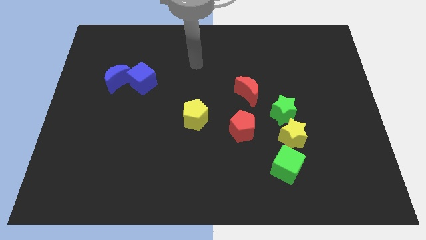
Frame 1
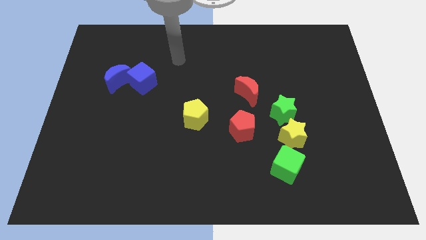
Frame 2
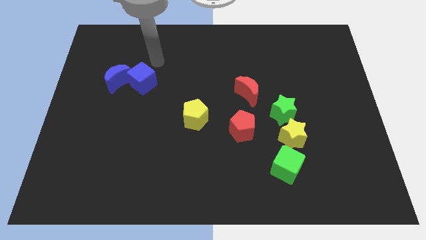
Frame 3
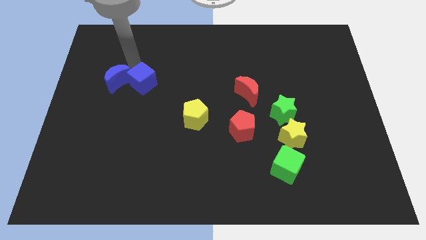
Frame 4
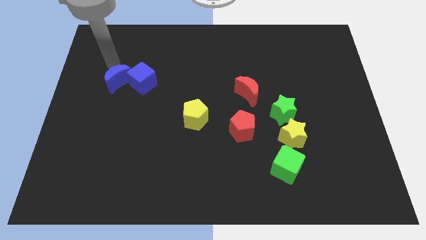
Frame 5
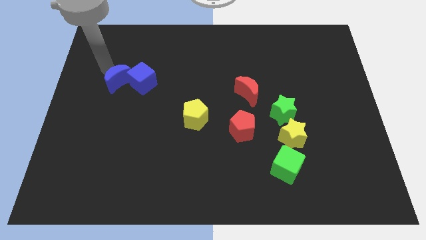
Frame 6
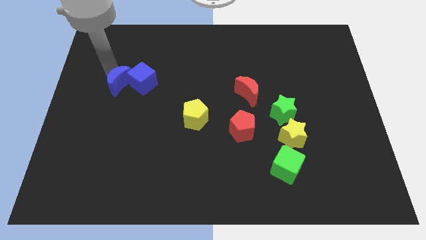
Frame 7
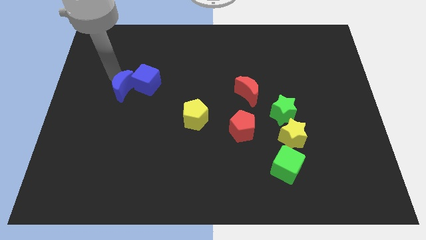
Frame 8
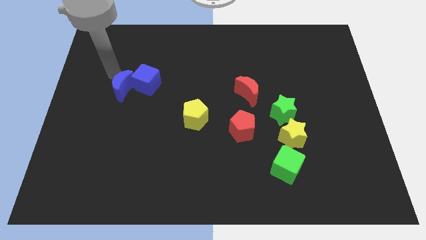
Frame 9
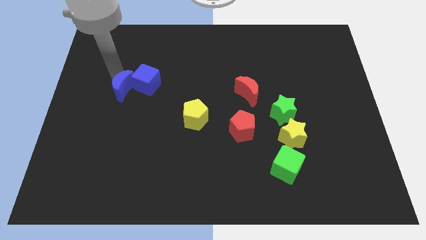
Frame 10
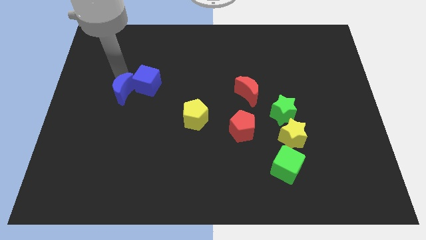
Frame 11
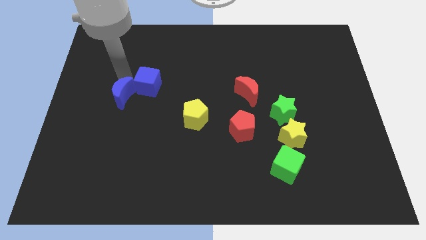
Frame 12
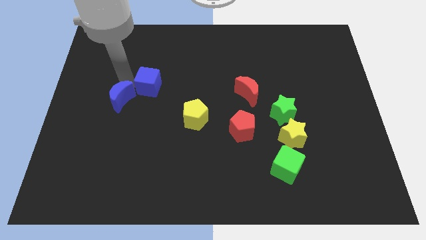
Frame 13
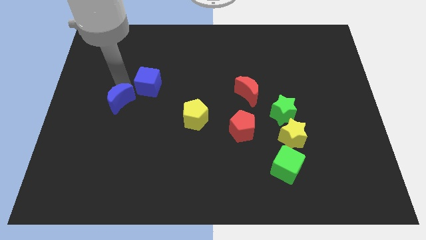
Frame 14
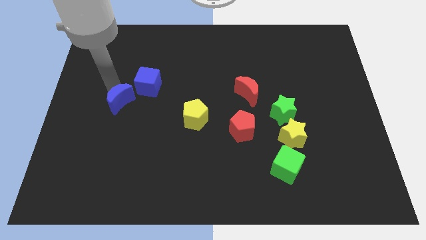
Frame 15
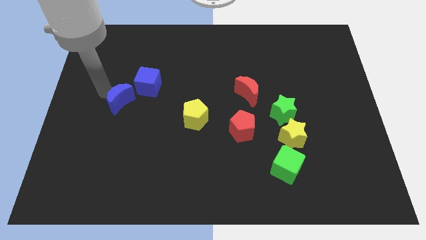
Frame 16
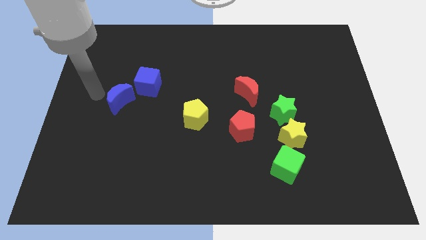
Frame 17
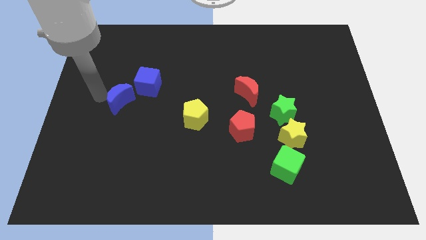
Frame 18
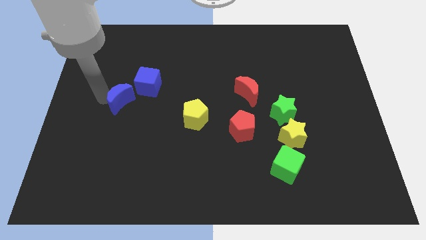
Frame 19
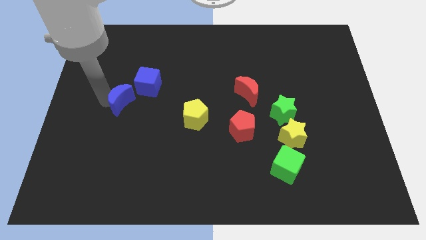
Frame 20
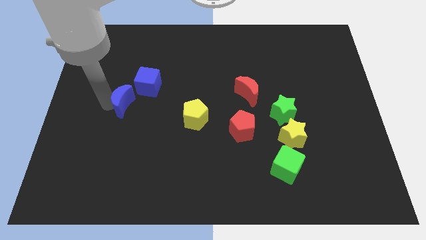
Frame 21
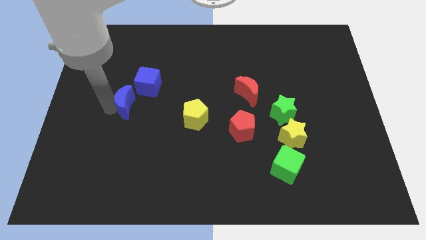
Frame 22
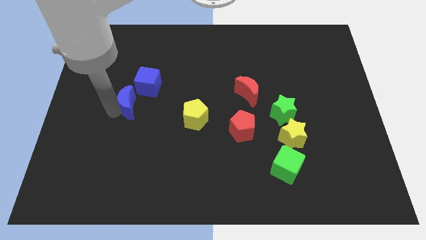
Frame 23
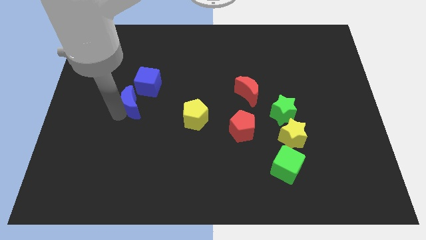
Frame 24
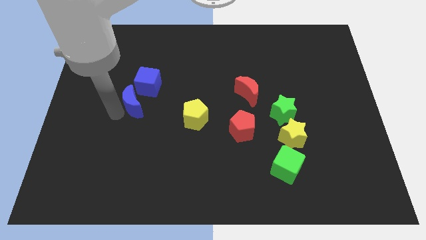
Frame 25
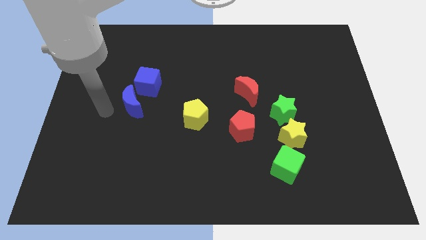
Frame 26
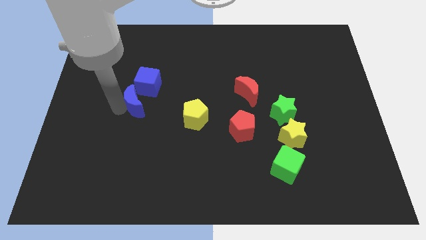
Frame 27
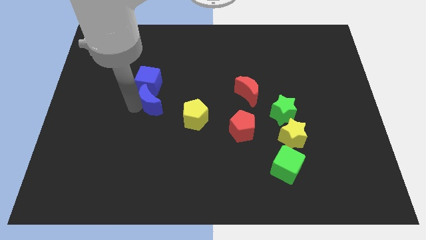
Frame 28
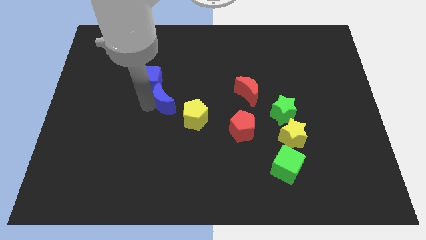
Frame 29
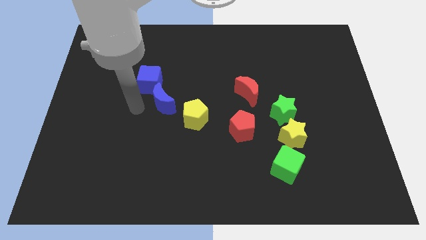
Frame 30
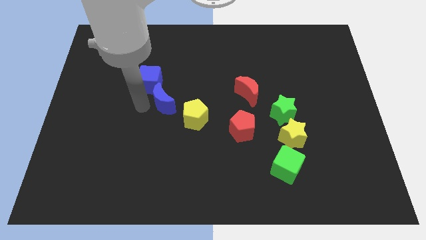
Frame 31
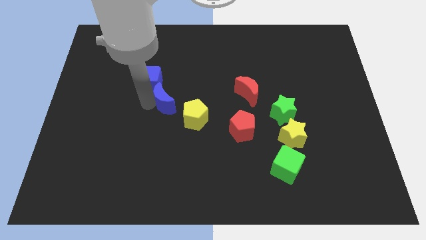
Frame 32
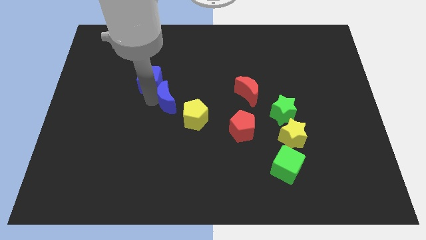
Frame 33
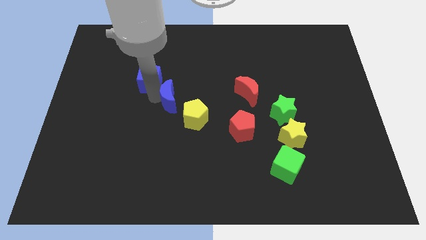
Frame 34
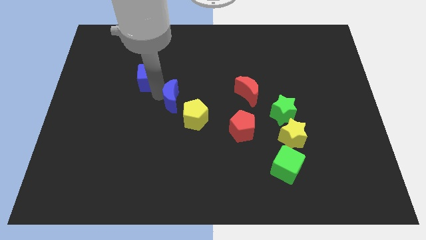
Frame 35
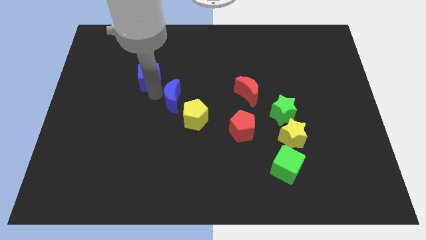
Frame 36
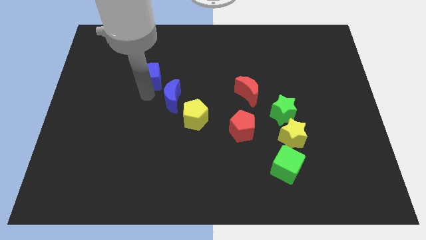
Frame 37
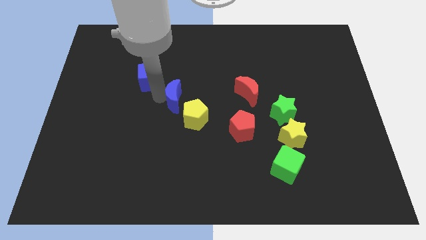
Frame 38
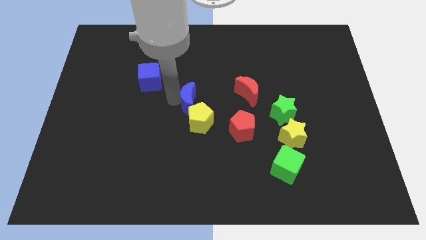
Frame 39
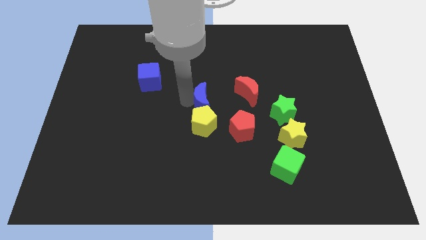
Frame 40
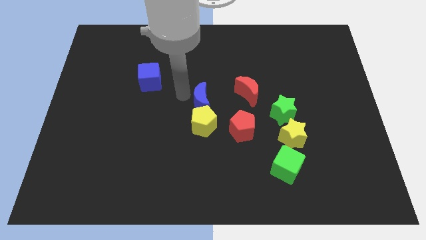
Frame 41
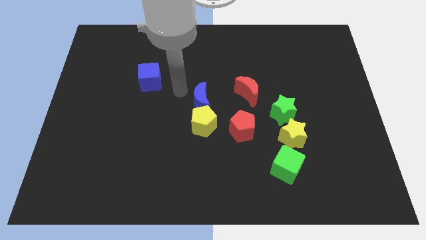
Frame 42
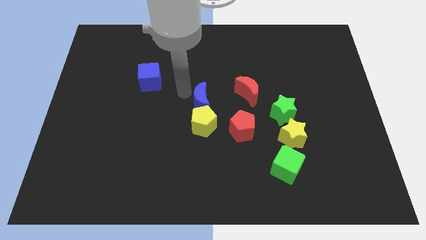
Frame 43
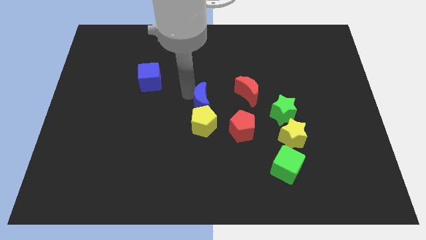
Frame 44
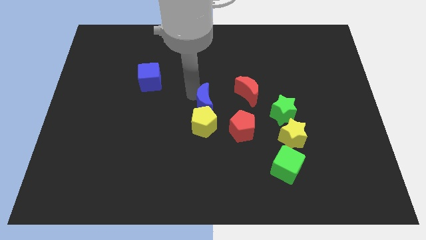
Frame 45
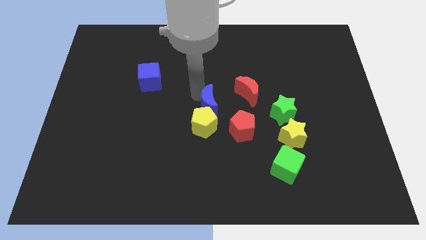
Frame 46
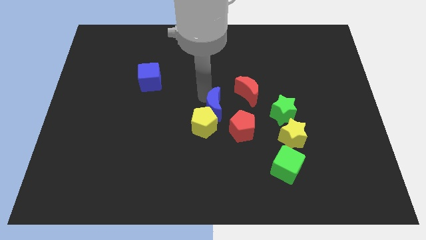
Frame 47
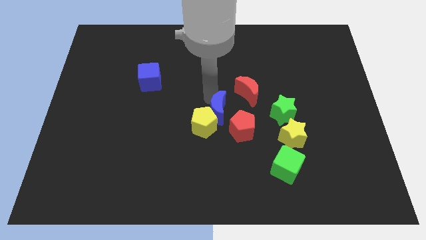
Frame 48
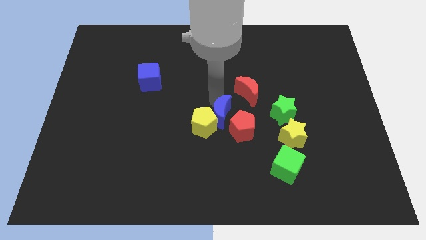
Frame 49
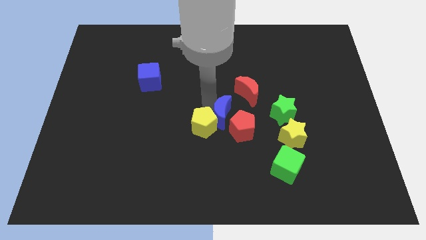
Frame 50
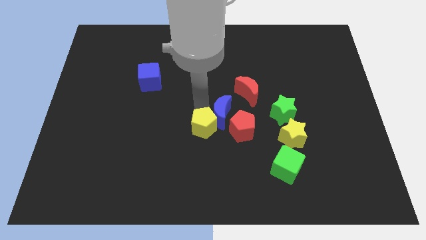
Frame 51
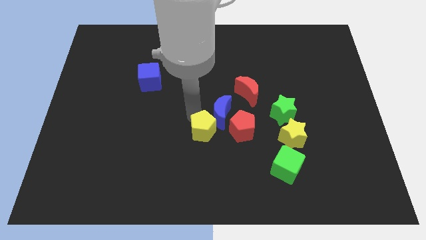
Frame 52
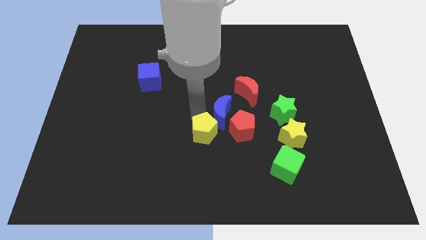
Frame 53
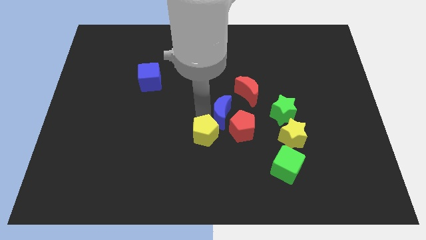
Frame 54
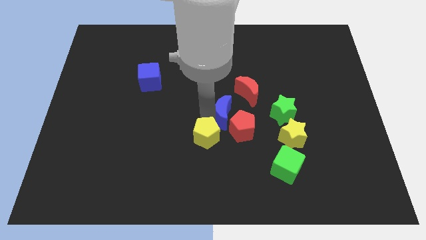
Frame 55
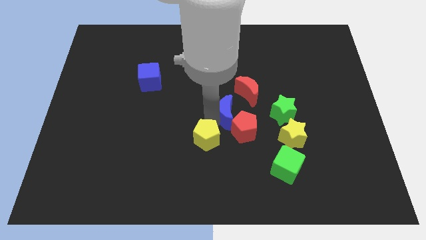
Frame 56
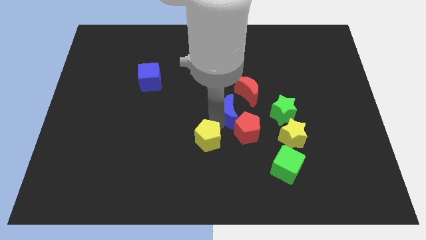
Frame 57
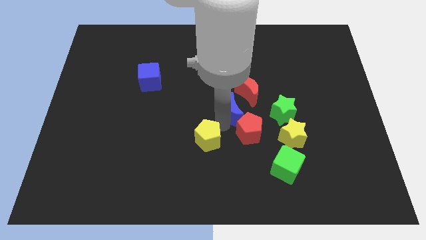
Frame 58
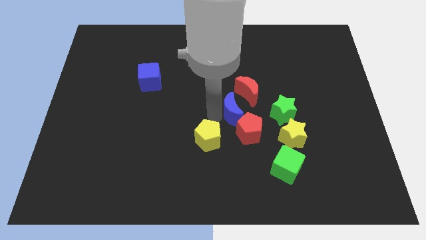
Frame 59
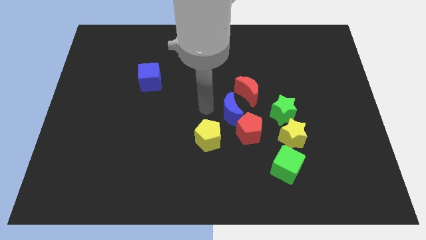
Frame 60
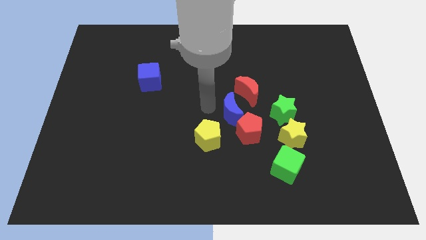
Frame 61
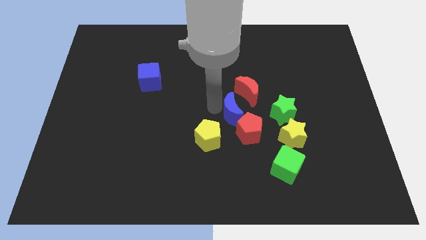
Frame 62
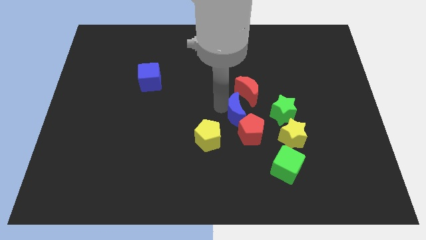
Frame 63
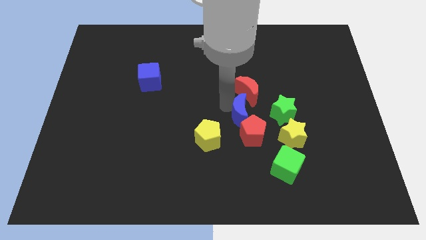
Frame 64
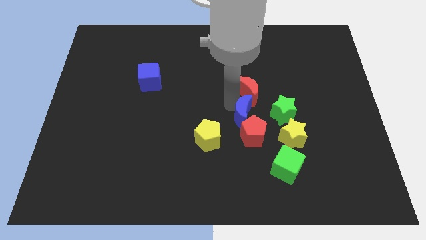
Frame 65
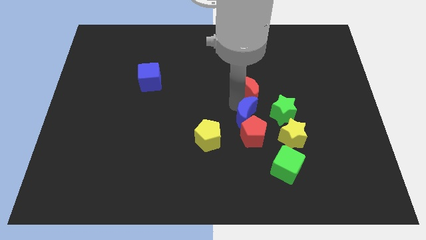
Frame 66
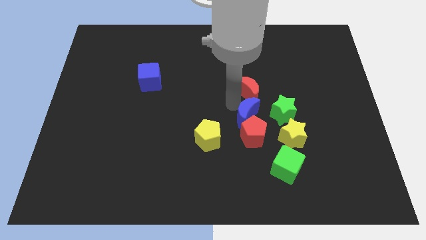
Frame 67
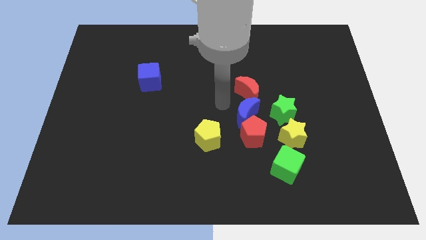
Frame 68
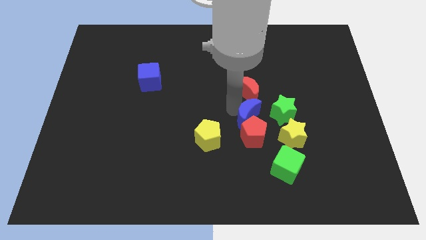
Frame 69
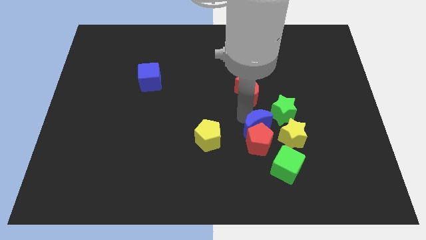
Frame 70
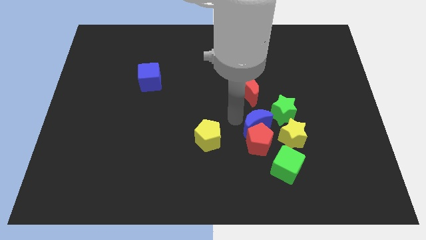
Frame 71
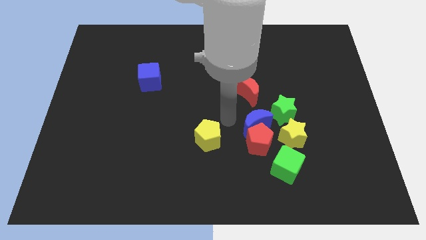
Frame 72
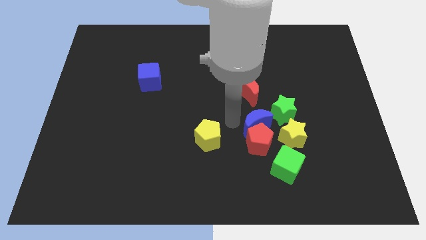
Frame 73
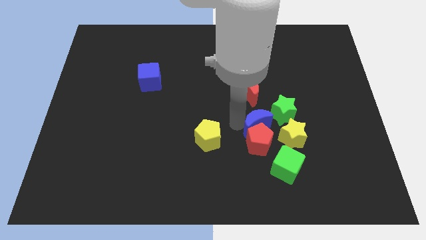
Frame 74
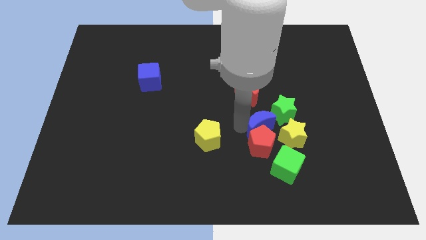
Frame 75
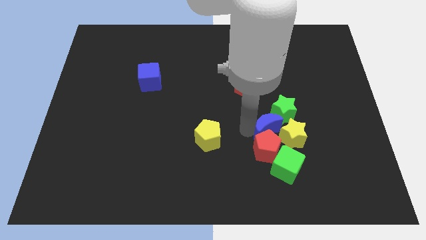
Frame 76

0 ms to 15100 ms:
push the blue moon next to the yellow star
